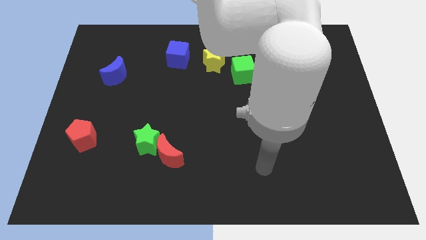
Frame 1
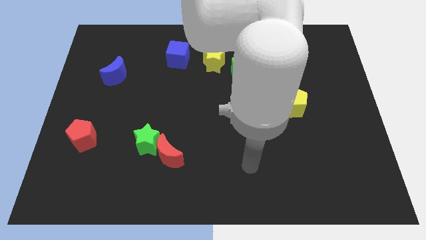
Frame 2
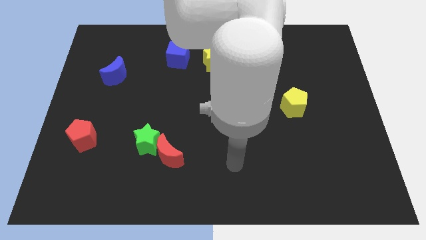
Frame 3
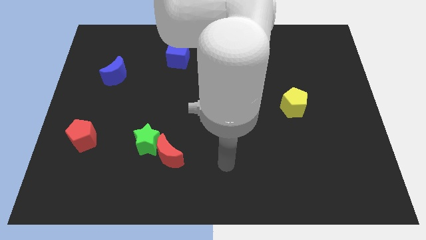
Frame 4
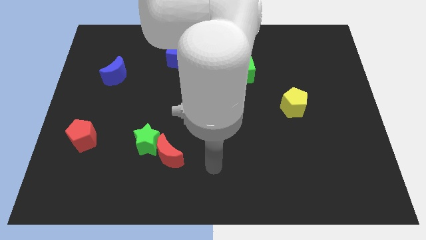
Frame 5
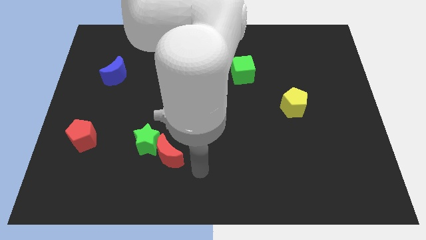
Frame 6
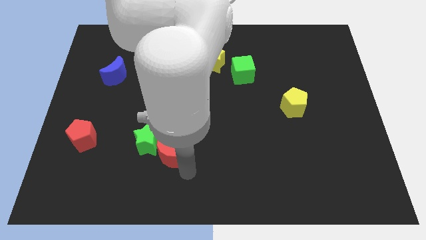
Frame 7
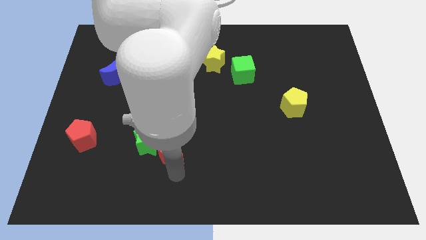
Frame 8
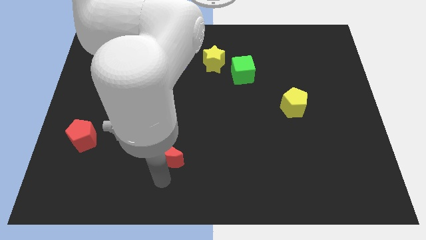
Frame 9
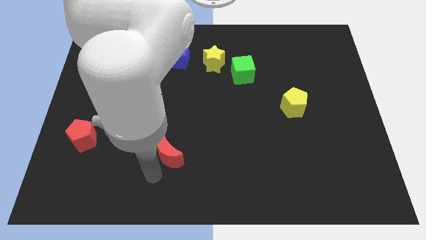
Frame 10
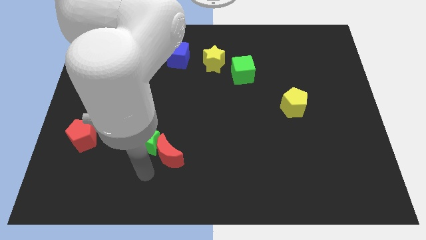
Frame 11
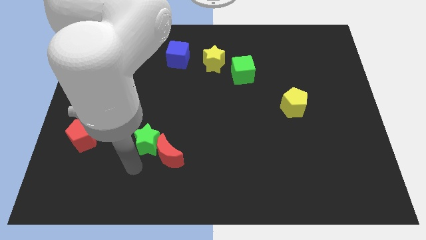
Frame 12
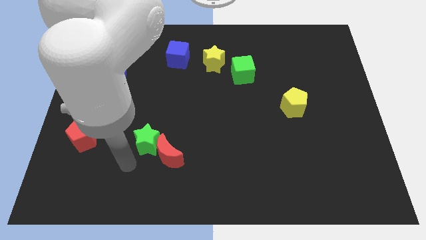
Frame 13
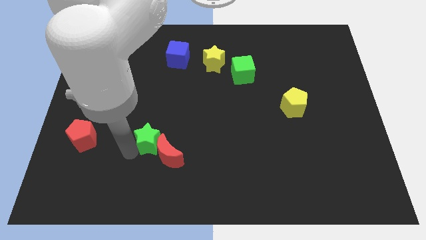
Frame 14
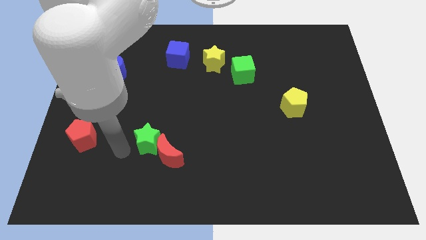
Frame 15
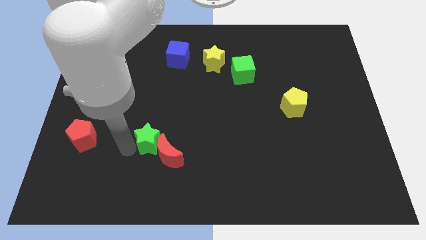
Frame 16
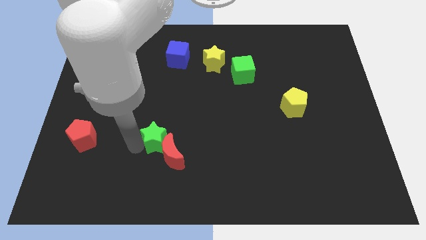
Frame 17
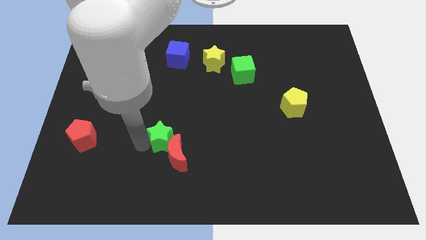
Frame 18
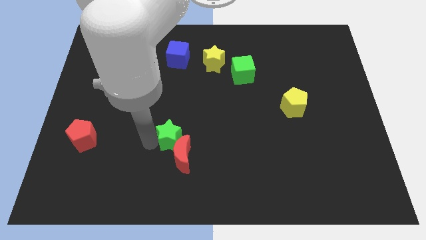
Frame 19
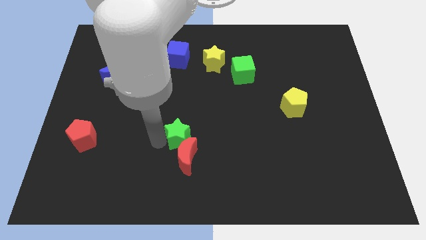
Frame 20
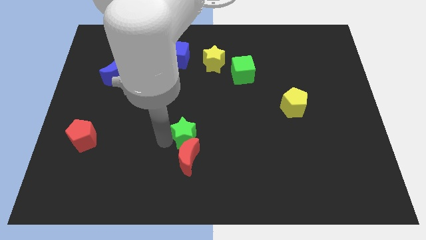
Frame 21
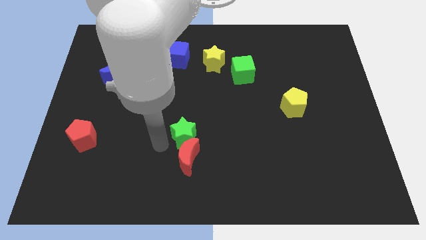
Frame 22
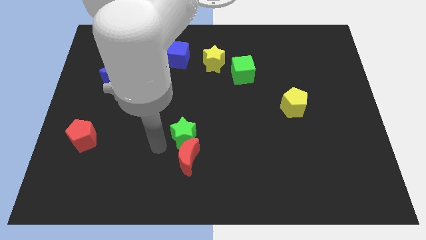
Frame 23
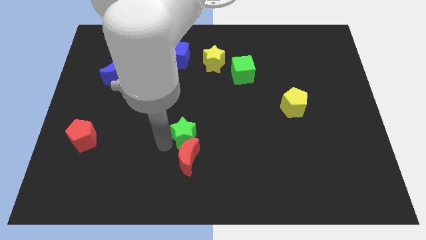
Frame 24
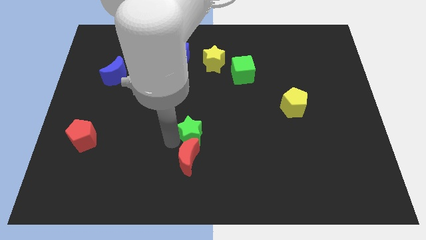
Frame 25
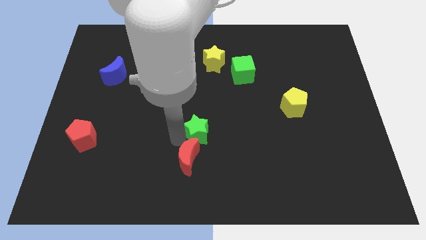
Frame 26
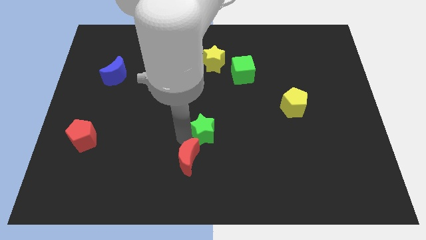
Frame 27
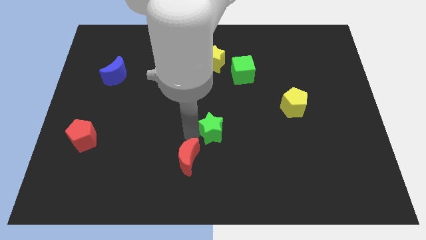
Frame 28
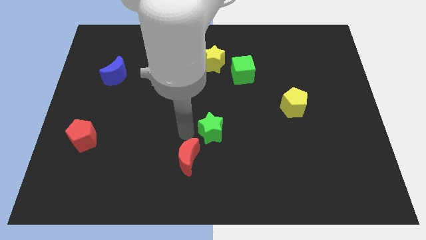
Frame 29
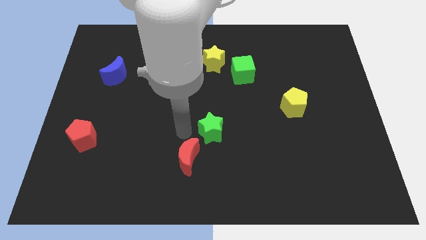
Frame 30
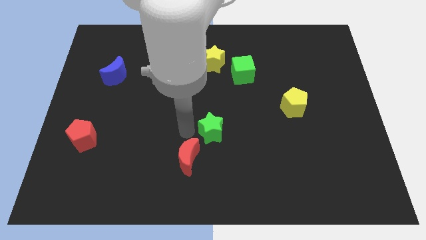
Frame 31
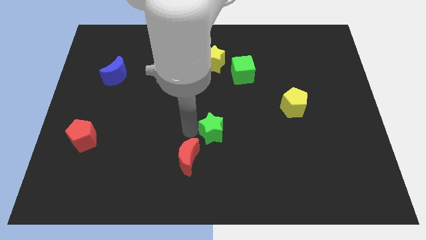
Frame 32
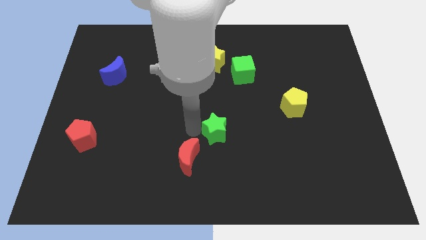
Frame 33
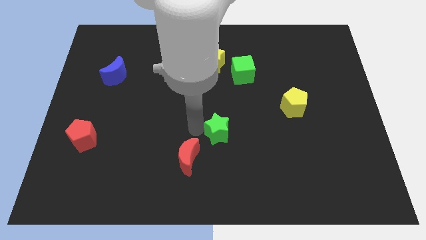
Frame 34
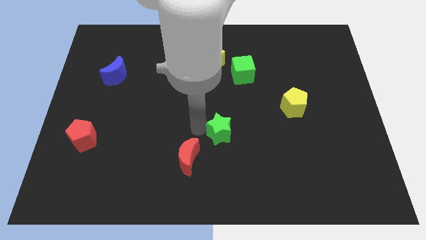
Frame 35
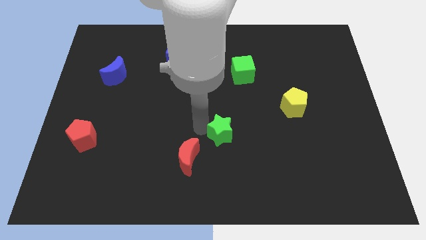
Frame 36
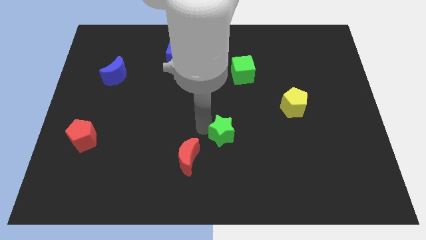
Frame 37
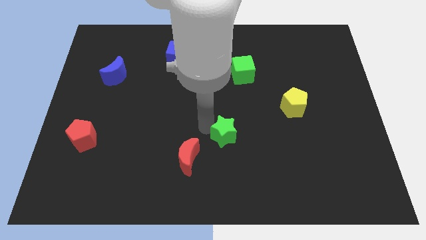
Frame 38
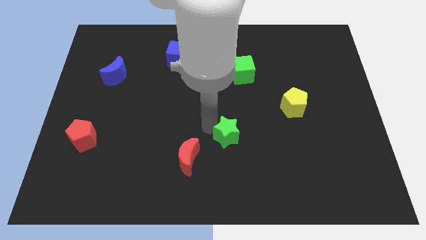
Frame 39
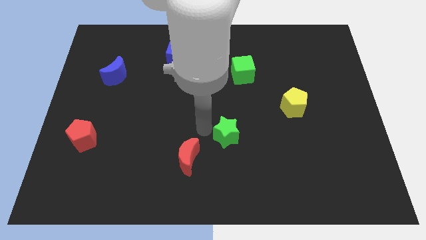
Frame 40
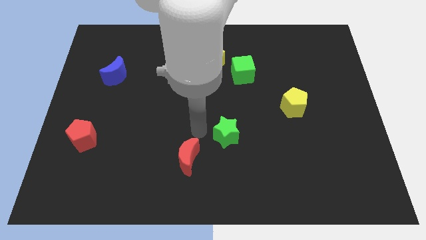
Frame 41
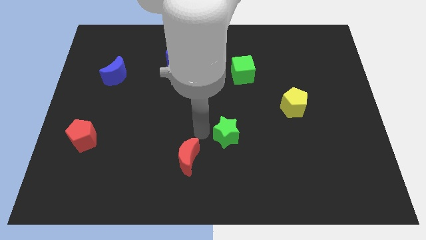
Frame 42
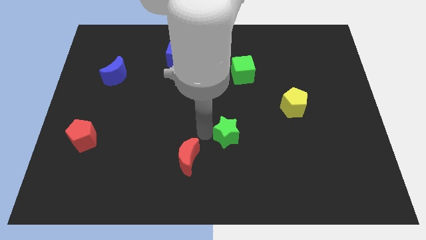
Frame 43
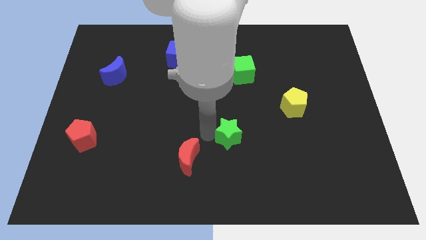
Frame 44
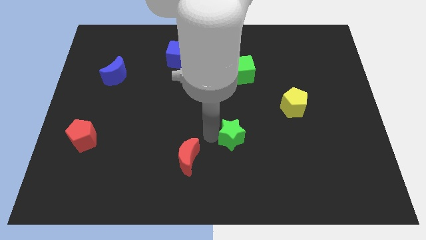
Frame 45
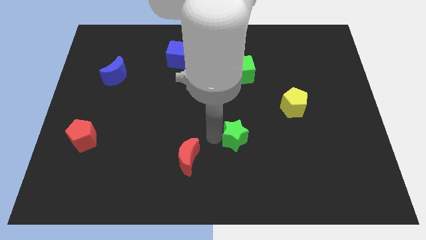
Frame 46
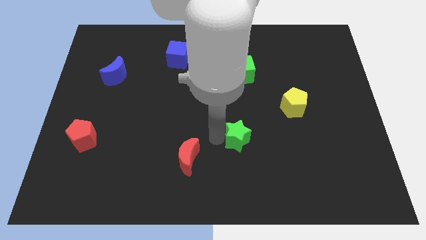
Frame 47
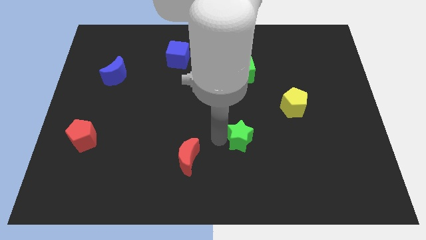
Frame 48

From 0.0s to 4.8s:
slide the green star to the right

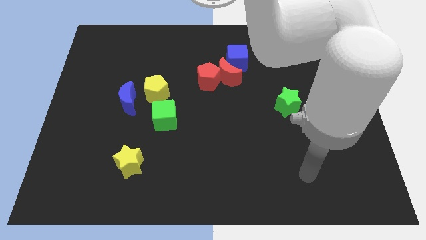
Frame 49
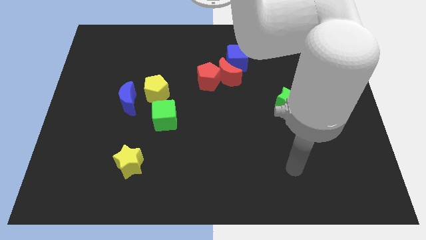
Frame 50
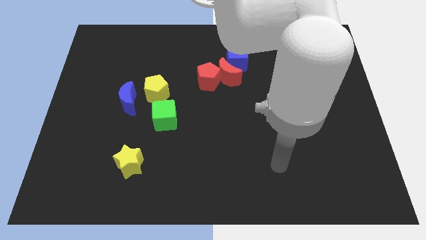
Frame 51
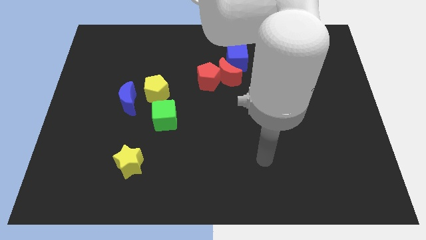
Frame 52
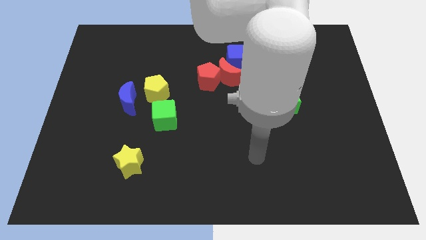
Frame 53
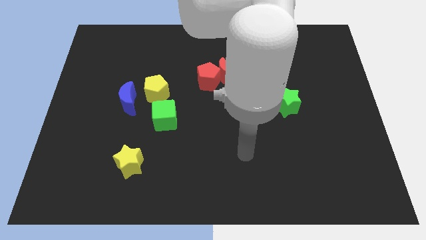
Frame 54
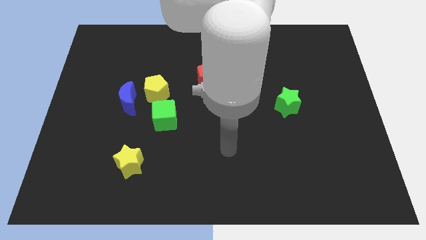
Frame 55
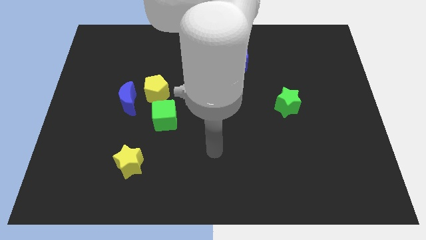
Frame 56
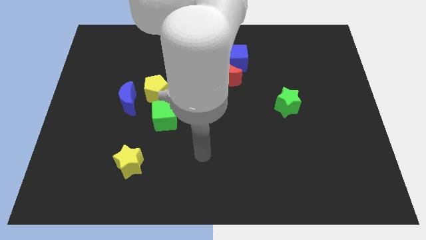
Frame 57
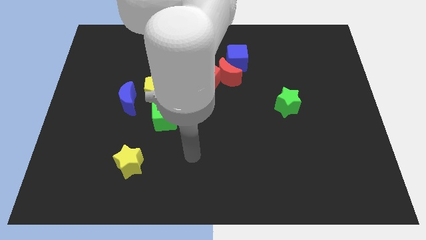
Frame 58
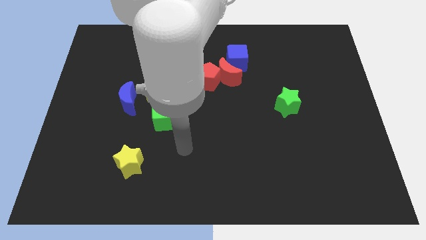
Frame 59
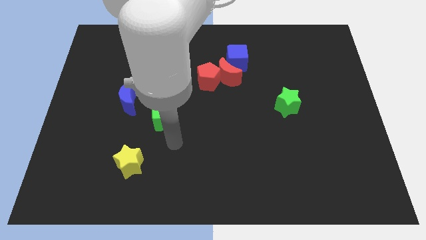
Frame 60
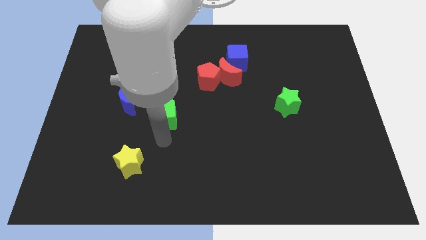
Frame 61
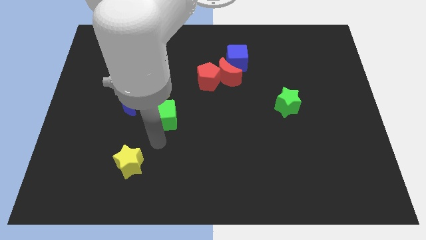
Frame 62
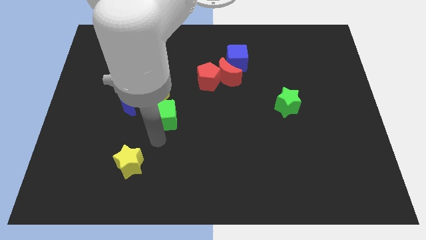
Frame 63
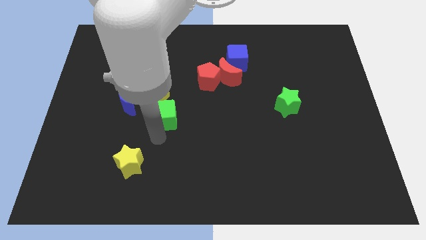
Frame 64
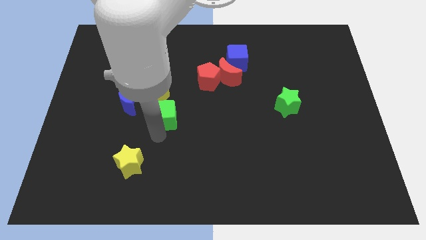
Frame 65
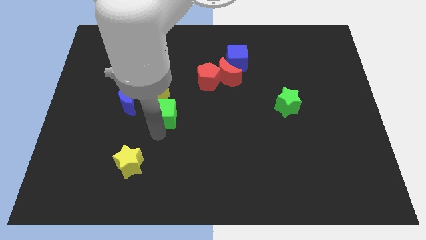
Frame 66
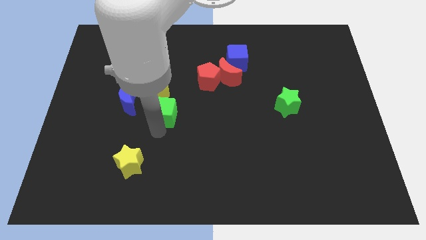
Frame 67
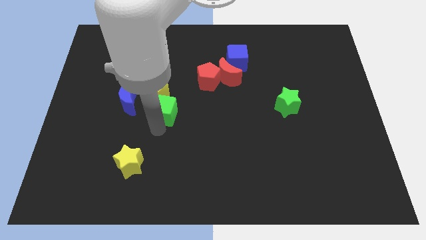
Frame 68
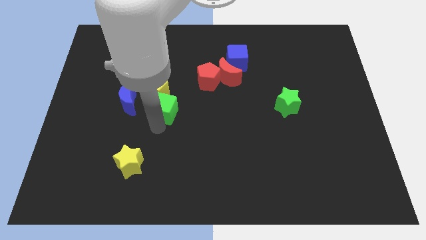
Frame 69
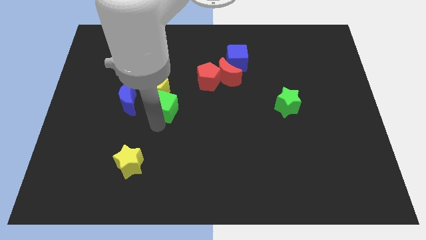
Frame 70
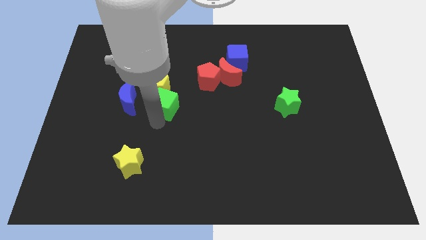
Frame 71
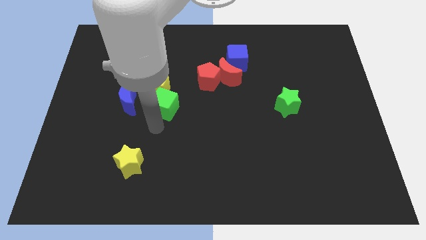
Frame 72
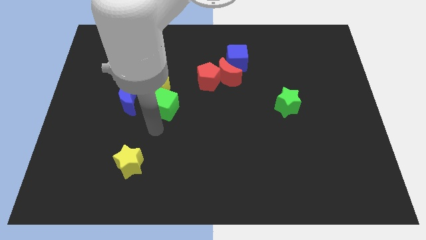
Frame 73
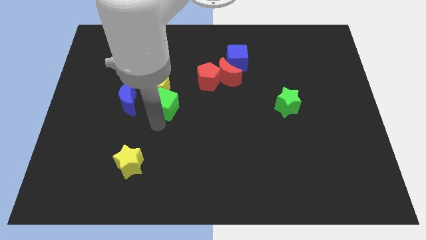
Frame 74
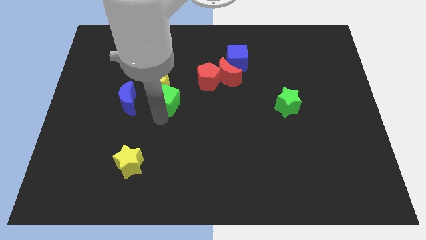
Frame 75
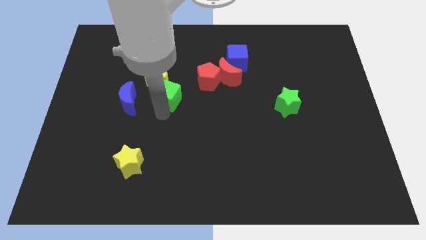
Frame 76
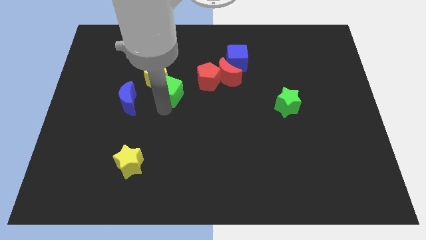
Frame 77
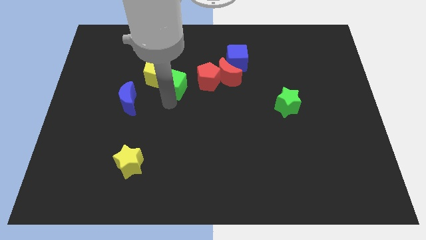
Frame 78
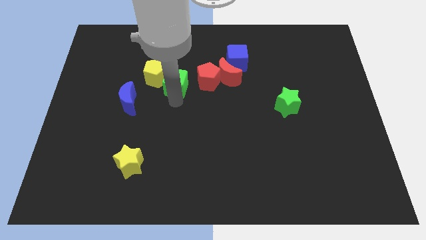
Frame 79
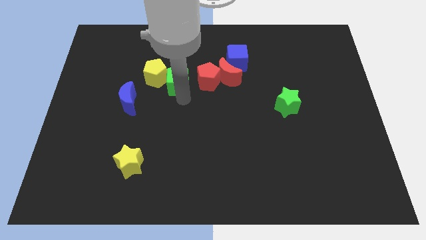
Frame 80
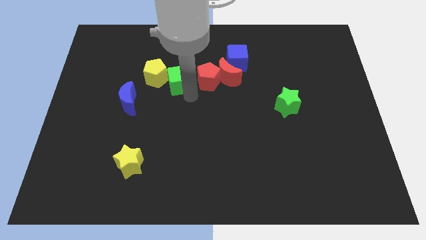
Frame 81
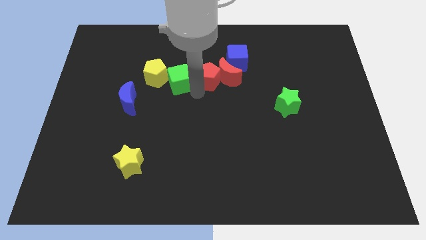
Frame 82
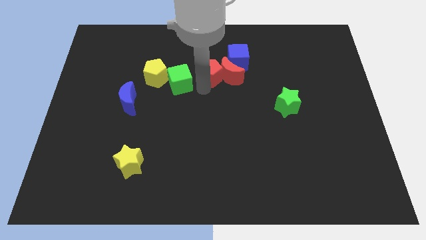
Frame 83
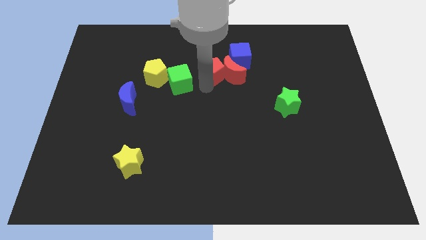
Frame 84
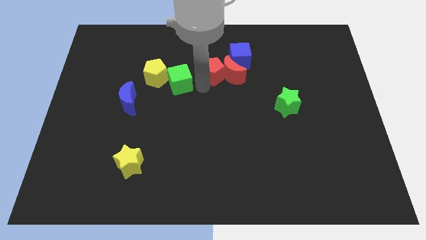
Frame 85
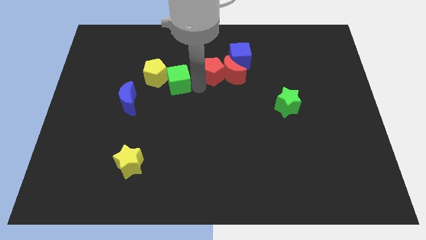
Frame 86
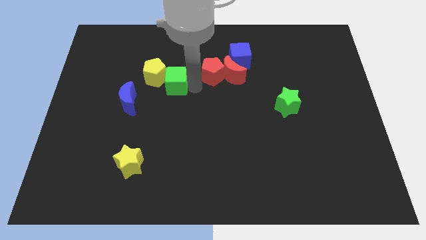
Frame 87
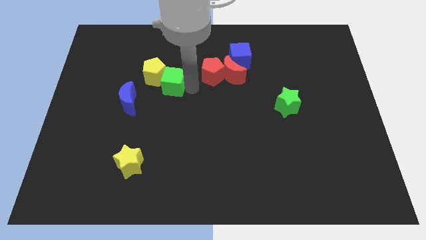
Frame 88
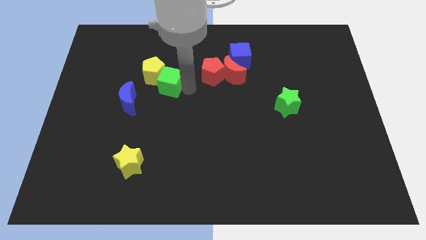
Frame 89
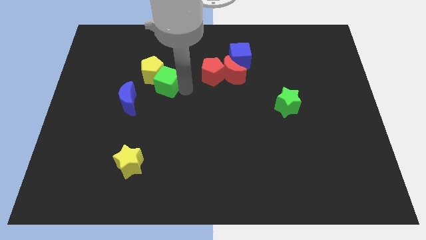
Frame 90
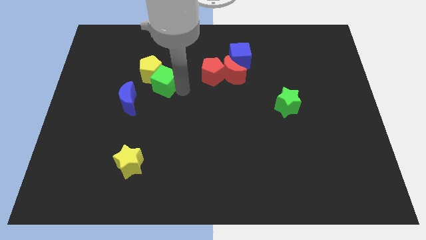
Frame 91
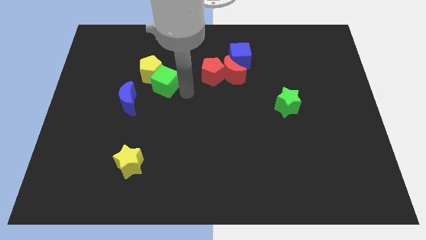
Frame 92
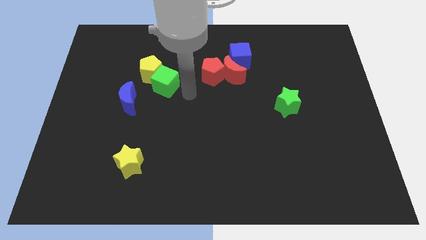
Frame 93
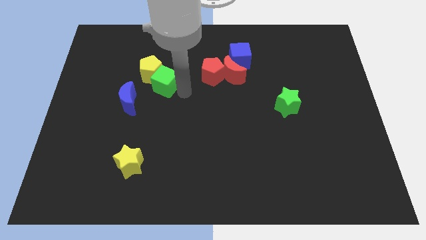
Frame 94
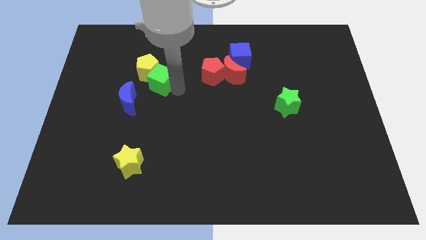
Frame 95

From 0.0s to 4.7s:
push the green cube diagonally up and to the left a bit
